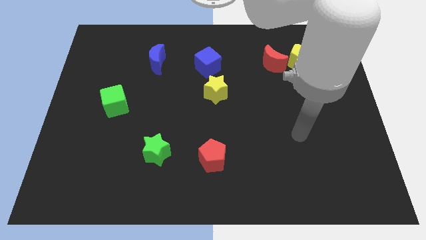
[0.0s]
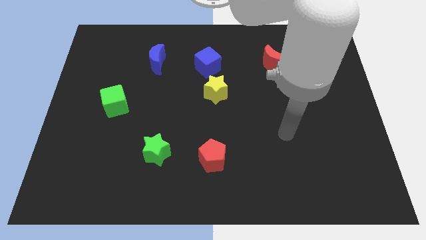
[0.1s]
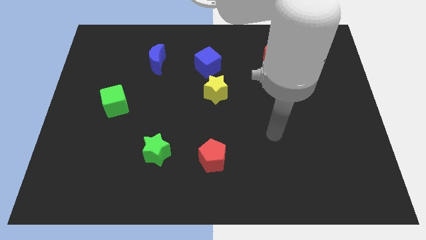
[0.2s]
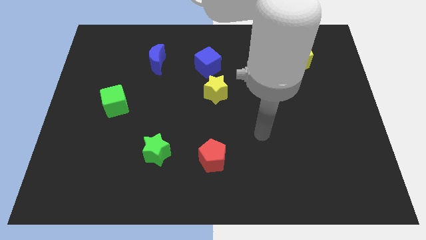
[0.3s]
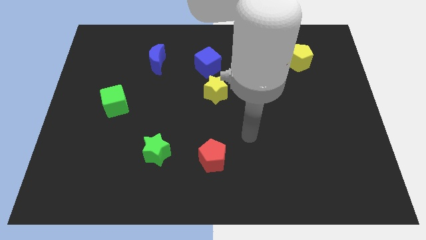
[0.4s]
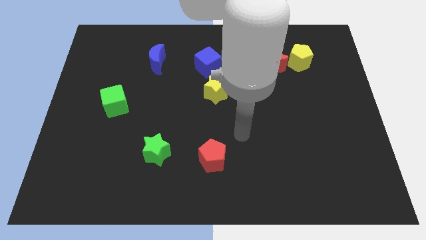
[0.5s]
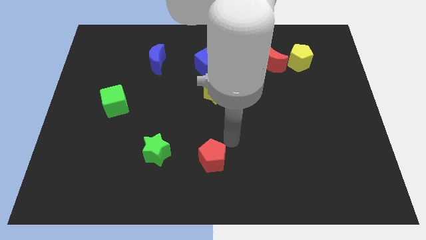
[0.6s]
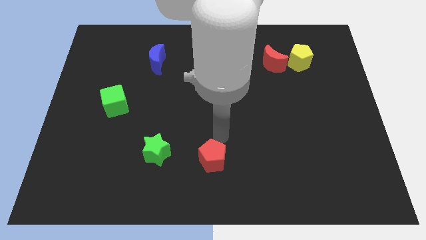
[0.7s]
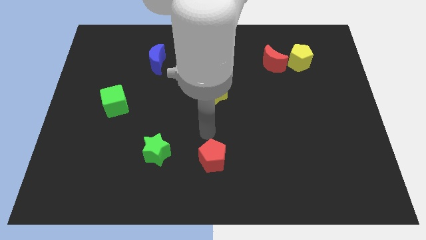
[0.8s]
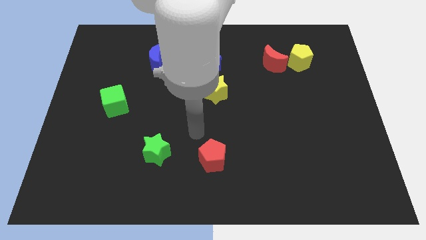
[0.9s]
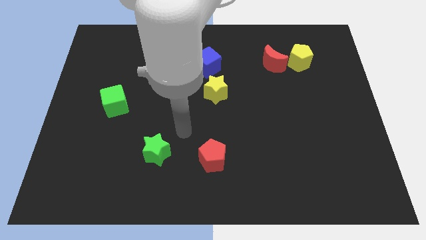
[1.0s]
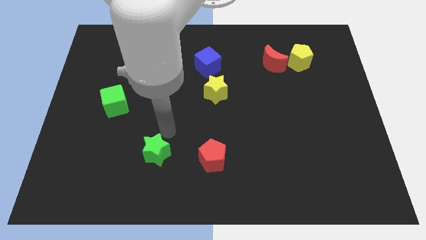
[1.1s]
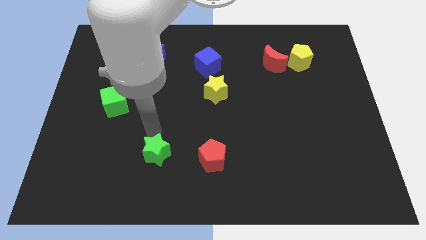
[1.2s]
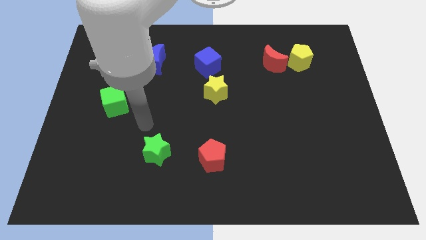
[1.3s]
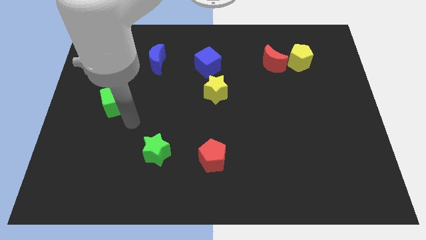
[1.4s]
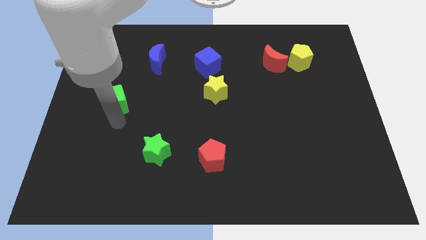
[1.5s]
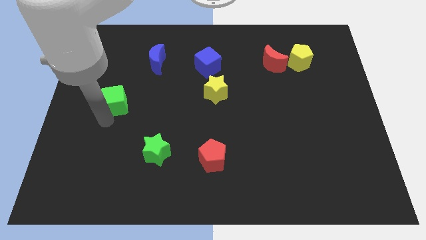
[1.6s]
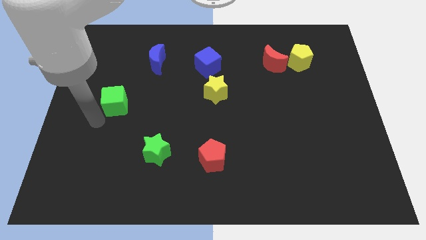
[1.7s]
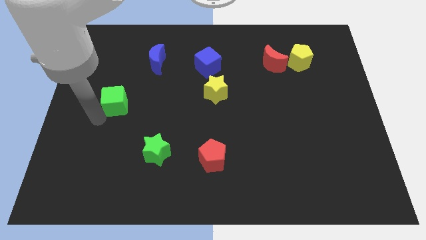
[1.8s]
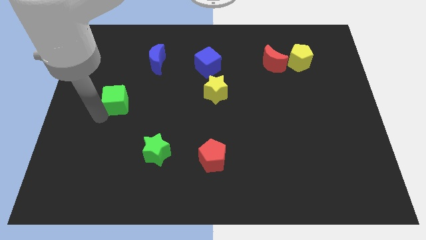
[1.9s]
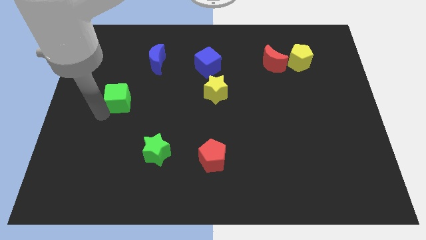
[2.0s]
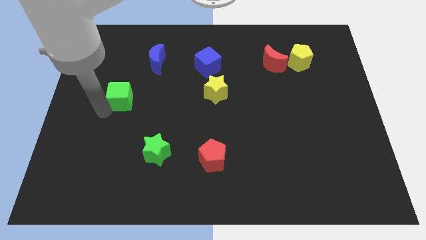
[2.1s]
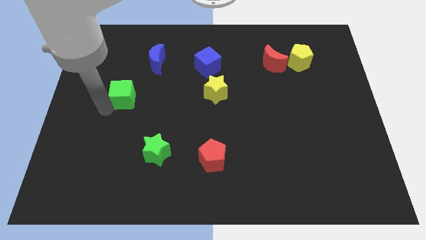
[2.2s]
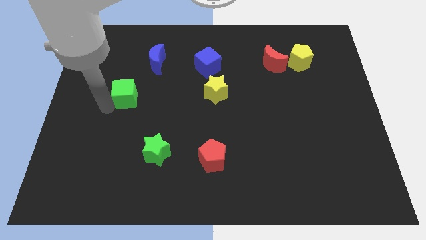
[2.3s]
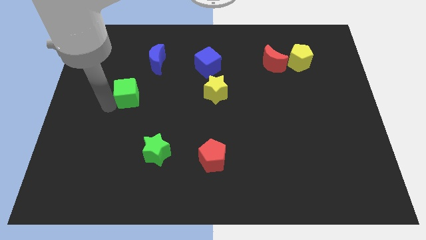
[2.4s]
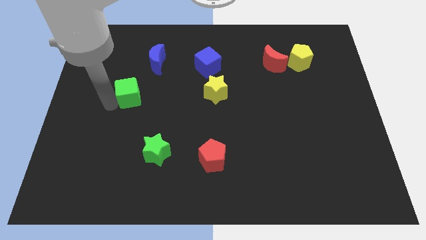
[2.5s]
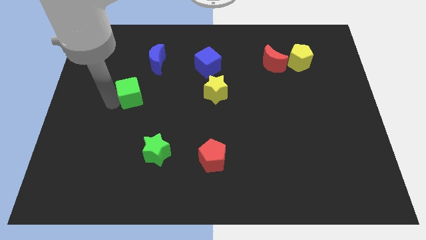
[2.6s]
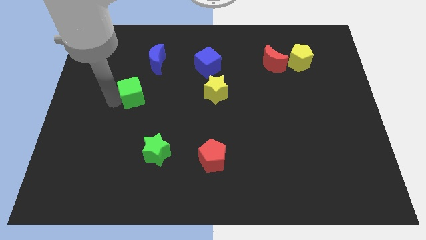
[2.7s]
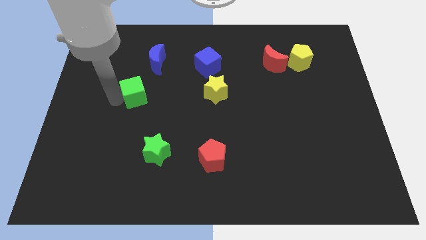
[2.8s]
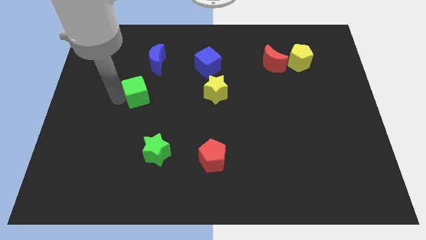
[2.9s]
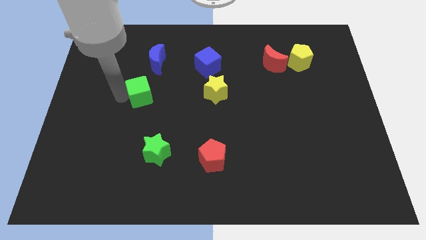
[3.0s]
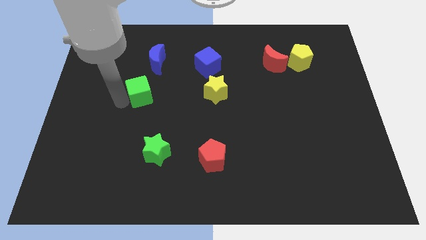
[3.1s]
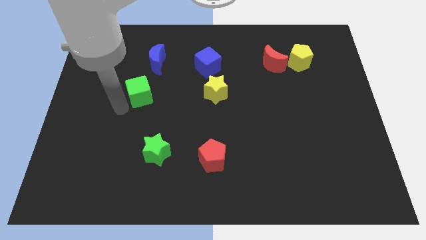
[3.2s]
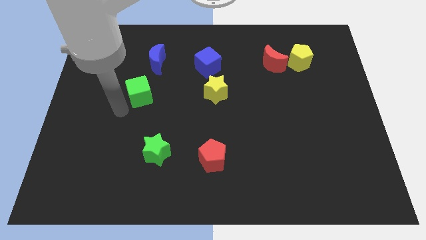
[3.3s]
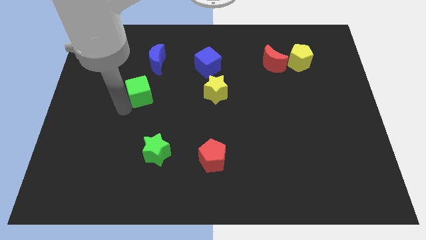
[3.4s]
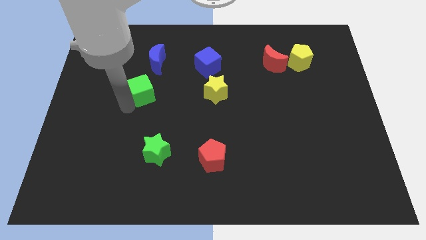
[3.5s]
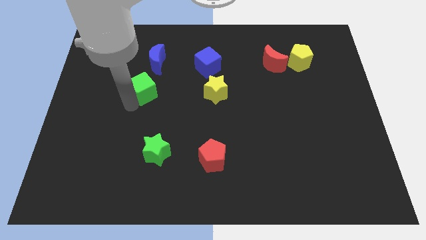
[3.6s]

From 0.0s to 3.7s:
move the green cube upwards and then right a bit

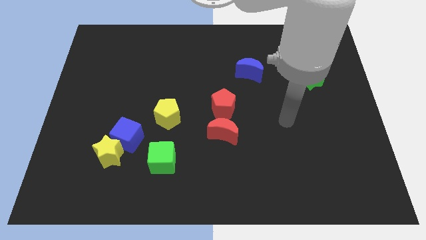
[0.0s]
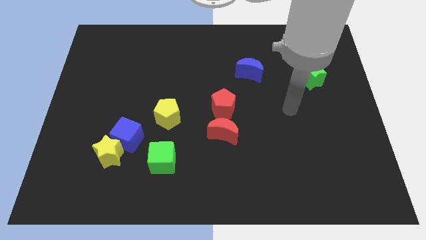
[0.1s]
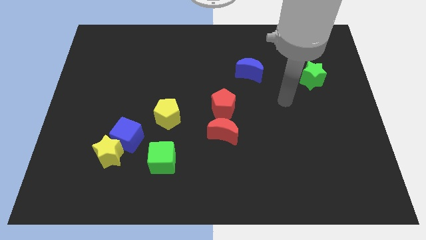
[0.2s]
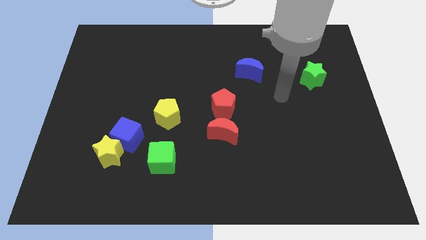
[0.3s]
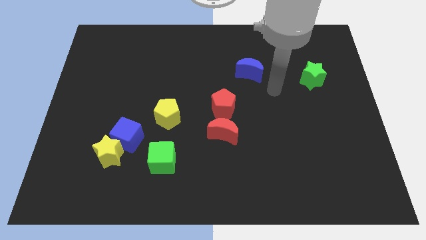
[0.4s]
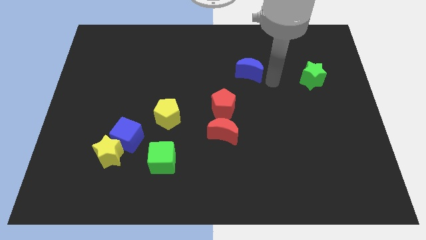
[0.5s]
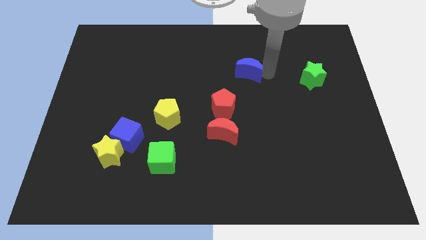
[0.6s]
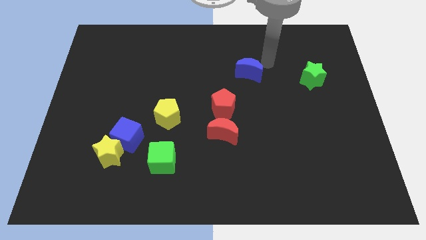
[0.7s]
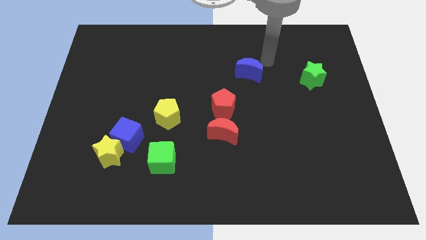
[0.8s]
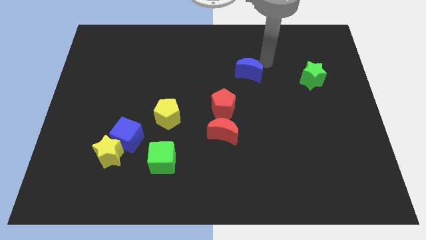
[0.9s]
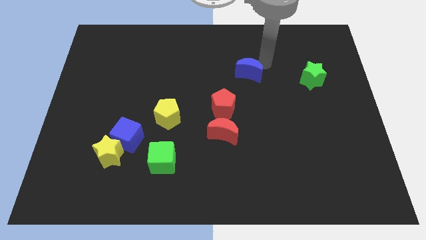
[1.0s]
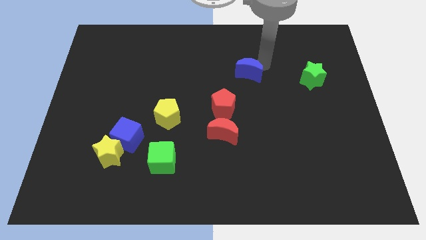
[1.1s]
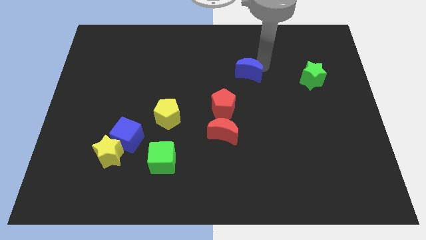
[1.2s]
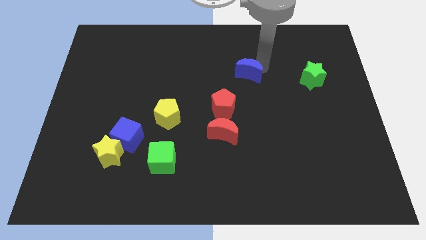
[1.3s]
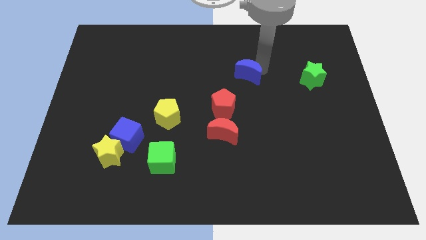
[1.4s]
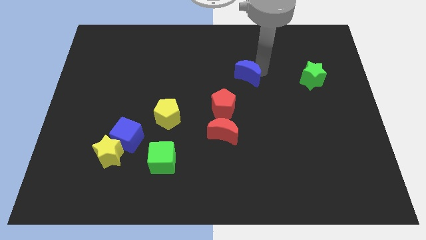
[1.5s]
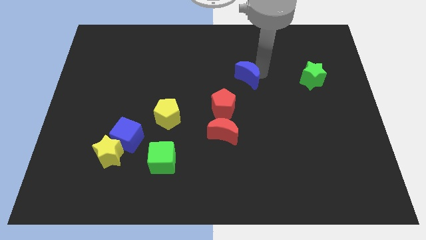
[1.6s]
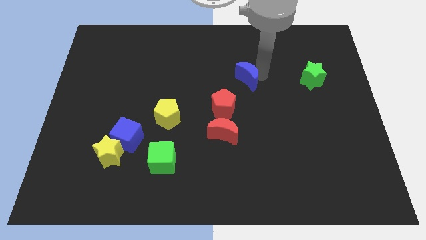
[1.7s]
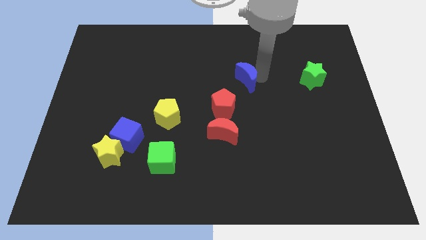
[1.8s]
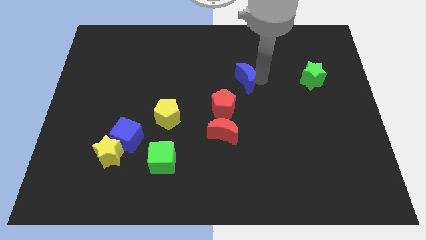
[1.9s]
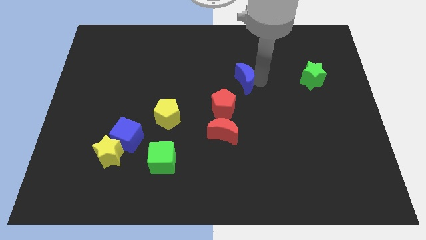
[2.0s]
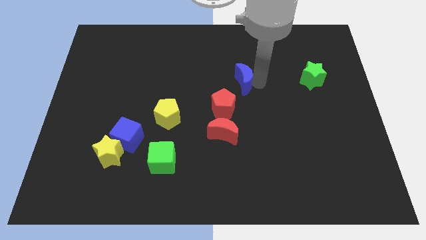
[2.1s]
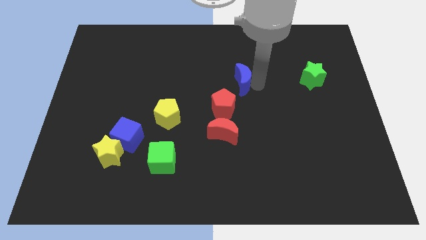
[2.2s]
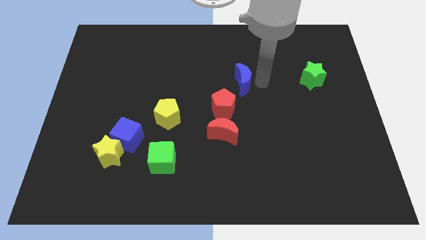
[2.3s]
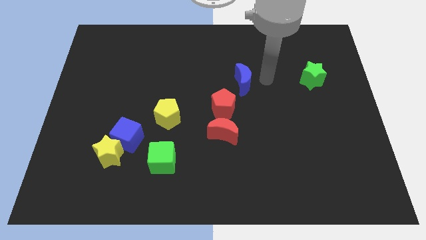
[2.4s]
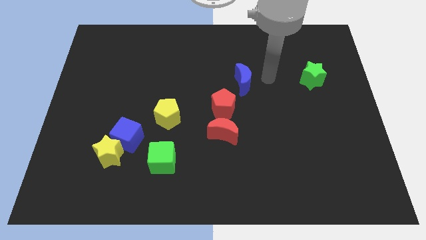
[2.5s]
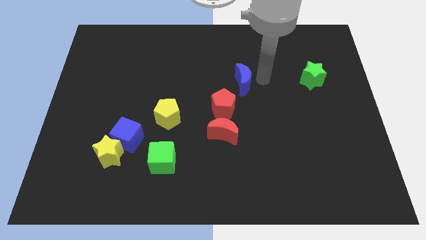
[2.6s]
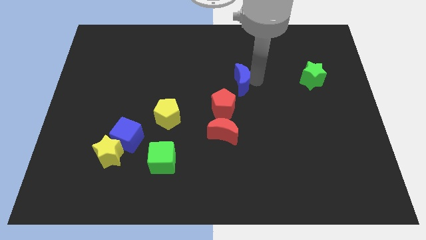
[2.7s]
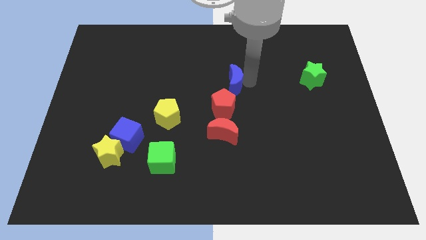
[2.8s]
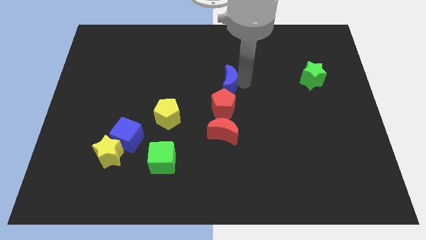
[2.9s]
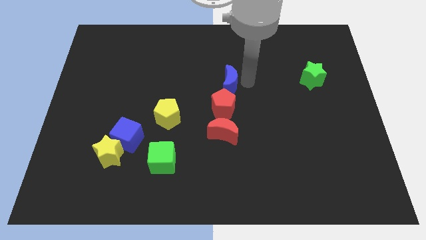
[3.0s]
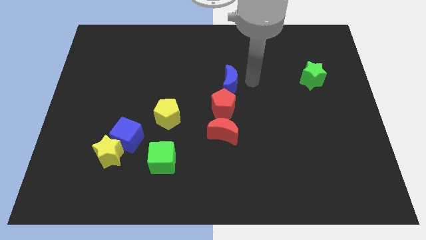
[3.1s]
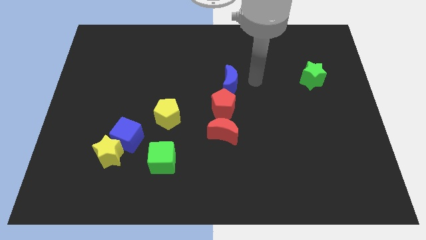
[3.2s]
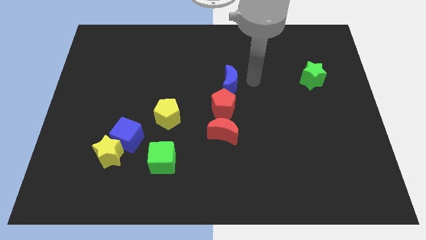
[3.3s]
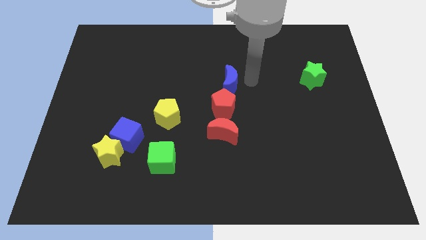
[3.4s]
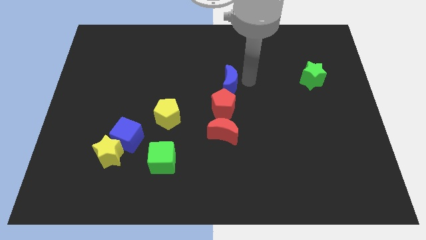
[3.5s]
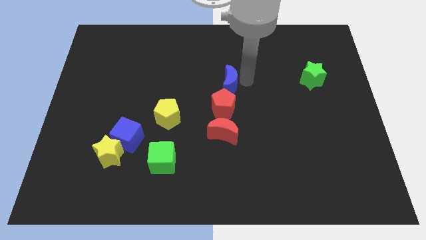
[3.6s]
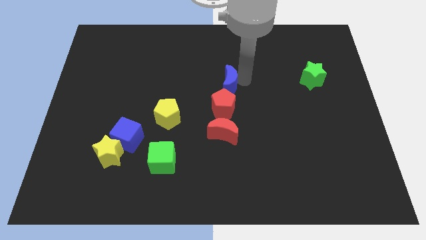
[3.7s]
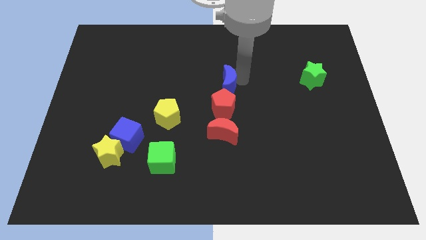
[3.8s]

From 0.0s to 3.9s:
push the blue moon a little downwards and then to the left

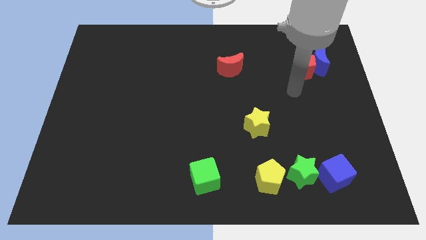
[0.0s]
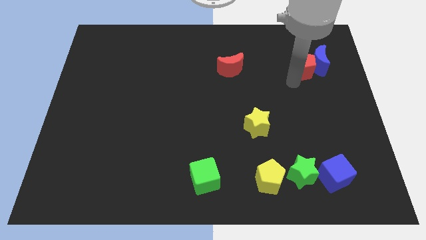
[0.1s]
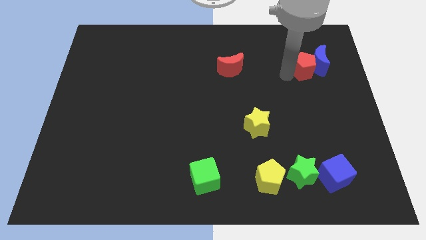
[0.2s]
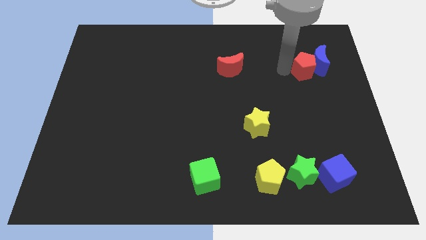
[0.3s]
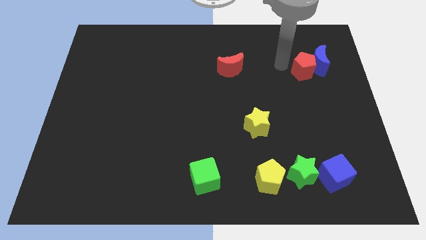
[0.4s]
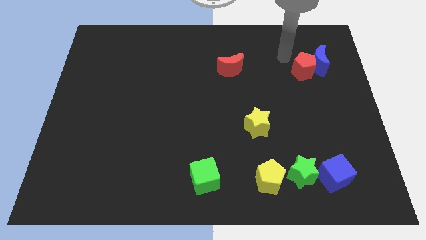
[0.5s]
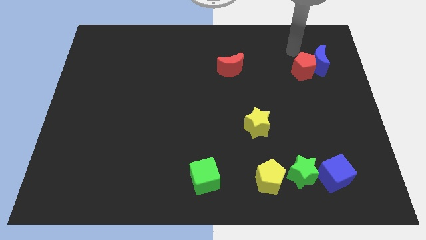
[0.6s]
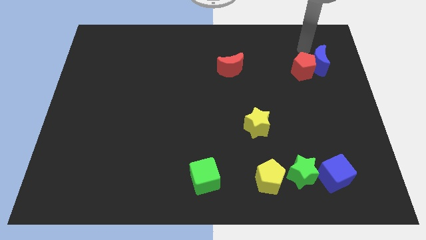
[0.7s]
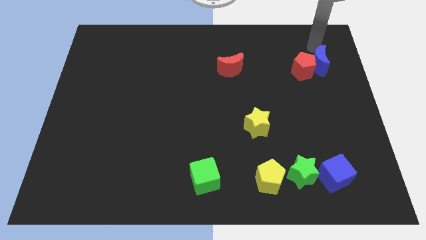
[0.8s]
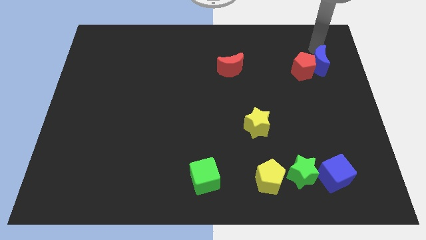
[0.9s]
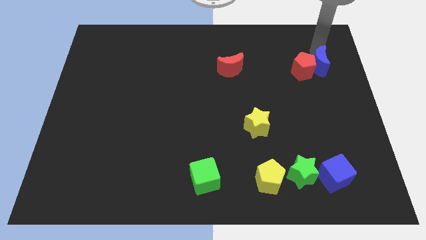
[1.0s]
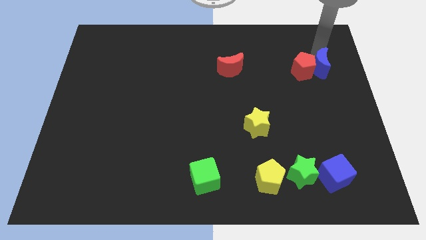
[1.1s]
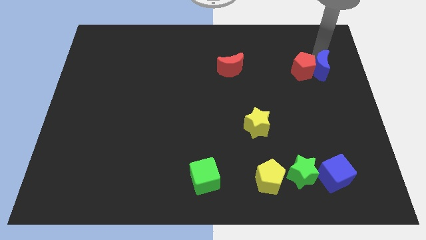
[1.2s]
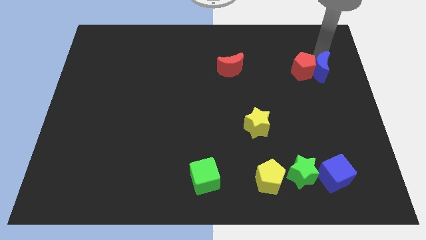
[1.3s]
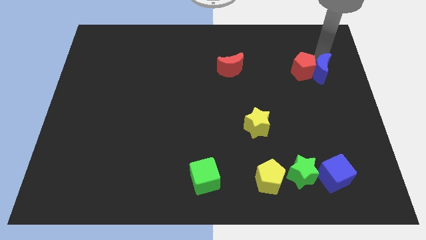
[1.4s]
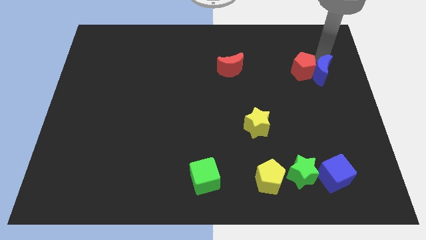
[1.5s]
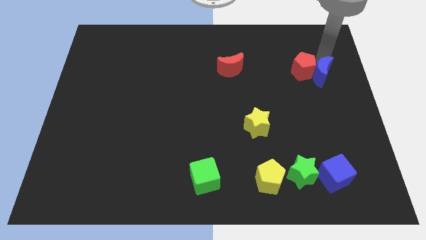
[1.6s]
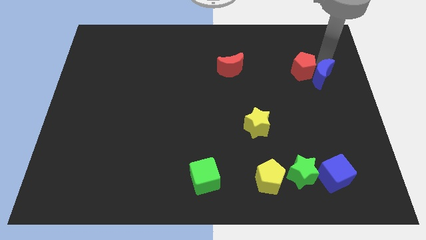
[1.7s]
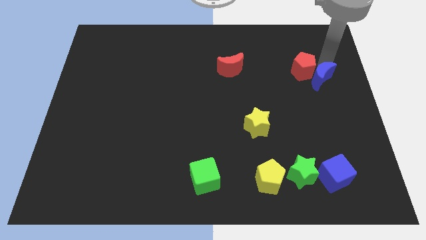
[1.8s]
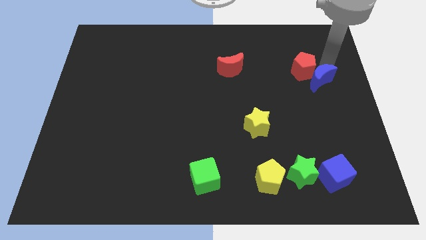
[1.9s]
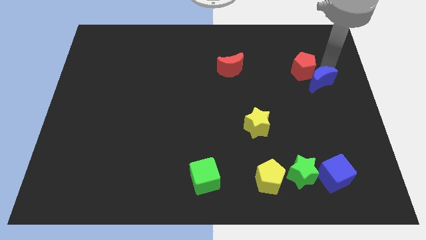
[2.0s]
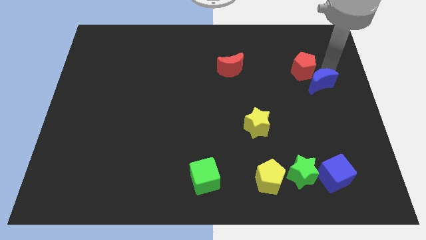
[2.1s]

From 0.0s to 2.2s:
push the blue moon down somewhat
